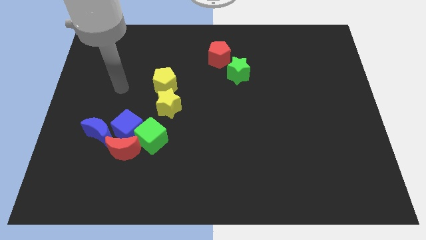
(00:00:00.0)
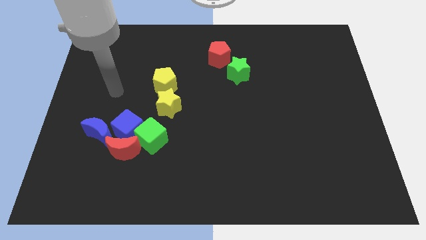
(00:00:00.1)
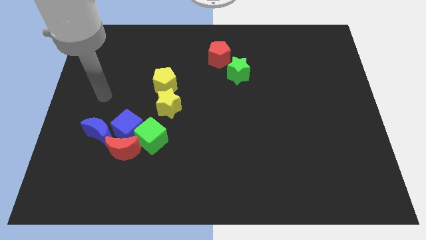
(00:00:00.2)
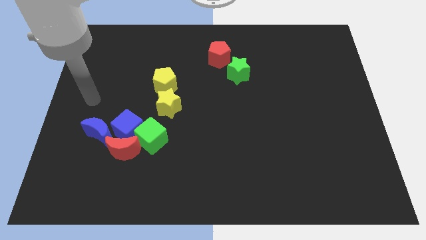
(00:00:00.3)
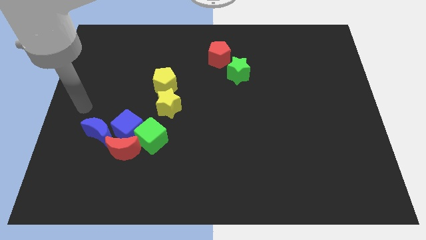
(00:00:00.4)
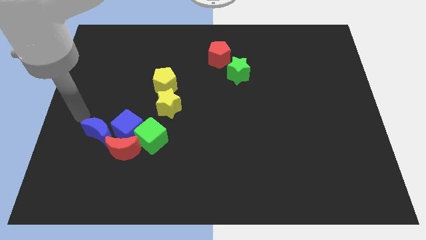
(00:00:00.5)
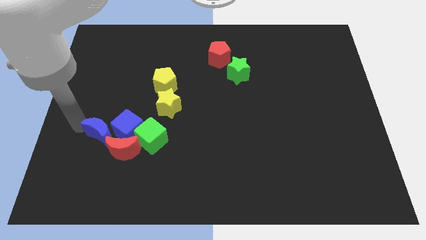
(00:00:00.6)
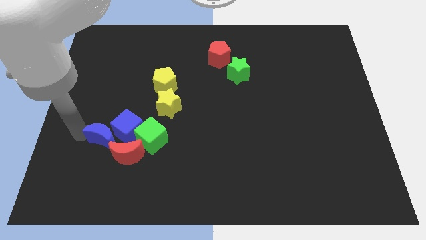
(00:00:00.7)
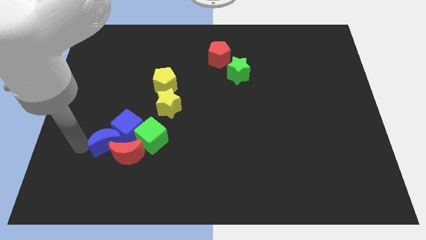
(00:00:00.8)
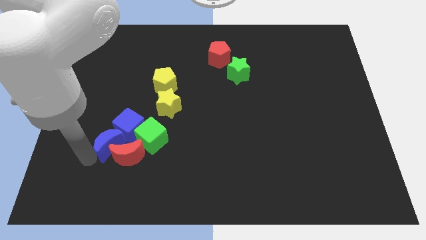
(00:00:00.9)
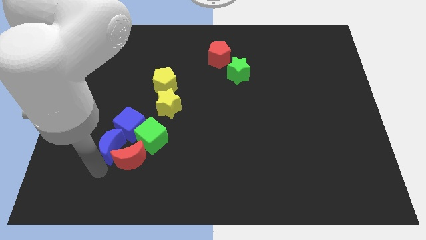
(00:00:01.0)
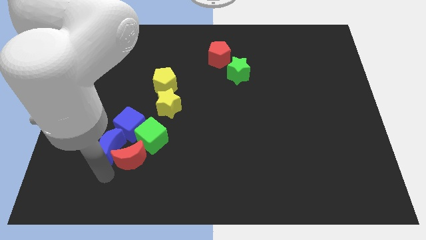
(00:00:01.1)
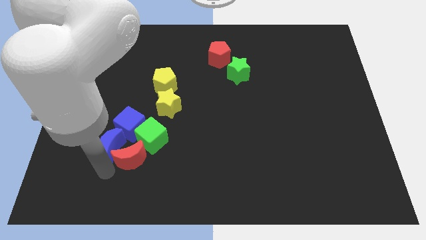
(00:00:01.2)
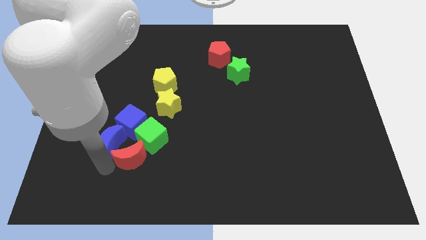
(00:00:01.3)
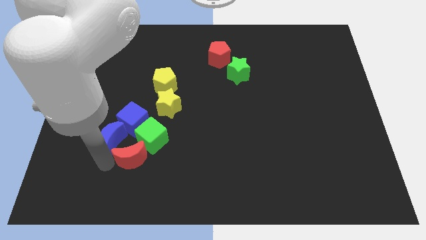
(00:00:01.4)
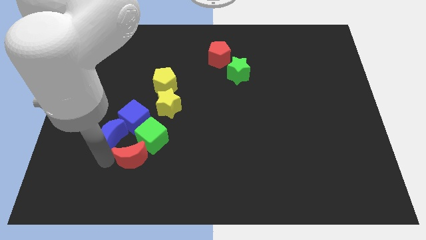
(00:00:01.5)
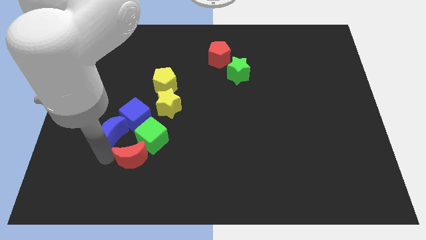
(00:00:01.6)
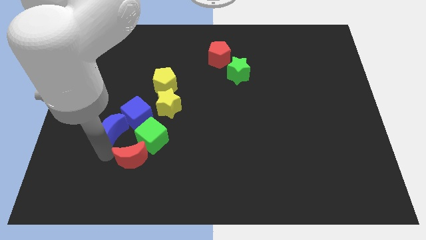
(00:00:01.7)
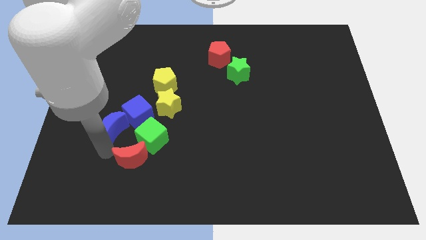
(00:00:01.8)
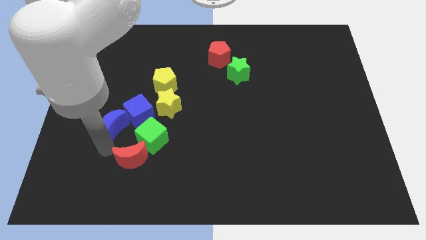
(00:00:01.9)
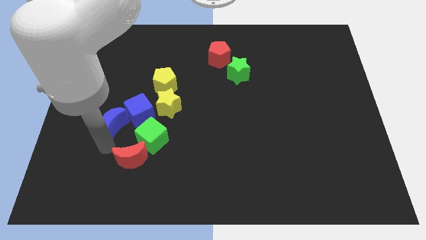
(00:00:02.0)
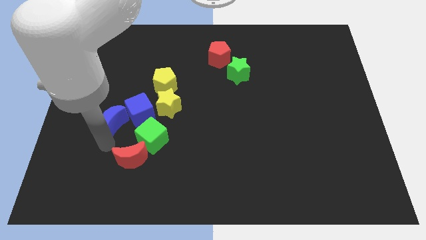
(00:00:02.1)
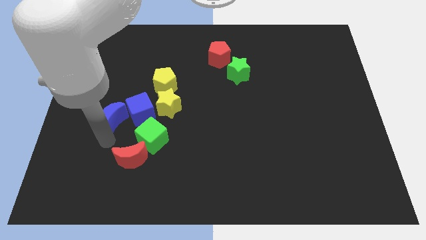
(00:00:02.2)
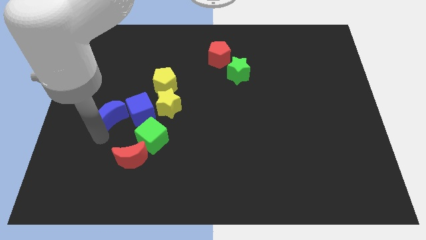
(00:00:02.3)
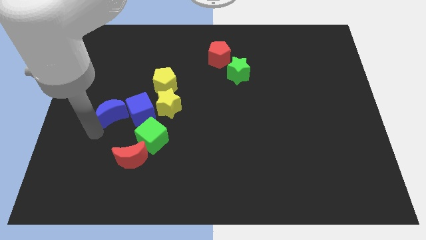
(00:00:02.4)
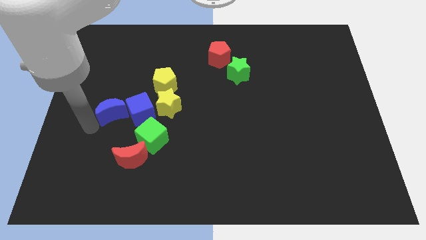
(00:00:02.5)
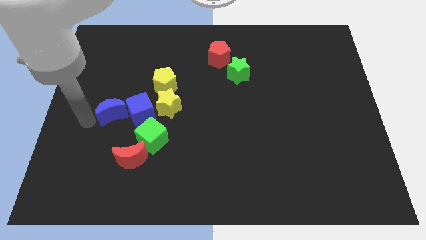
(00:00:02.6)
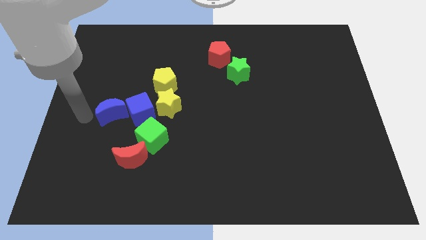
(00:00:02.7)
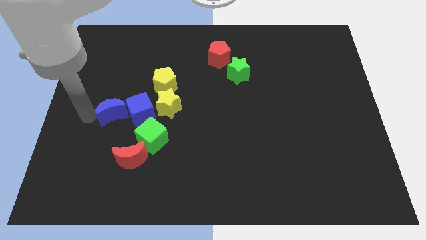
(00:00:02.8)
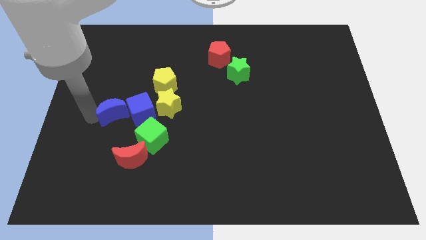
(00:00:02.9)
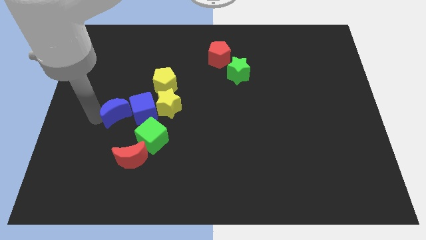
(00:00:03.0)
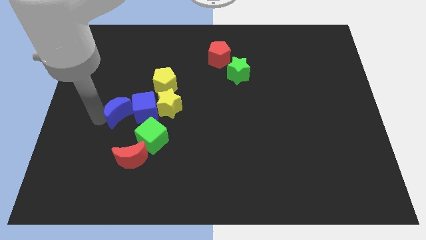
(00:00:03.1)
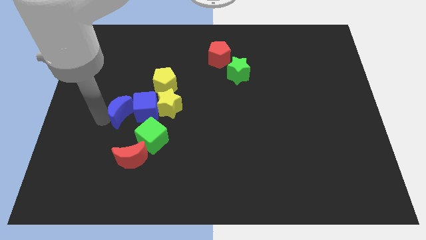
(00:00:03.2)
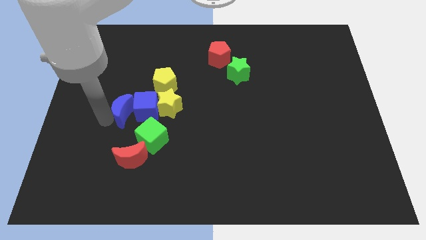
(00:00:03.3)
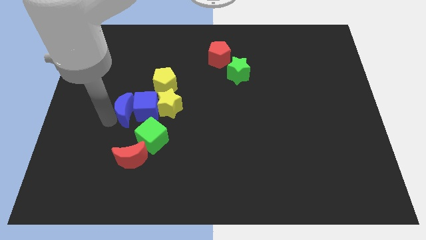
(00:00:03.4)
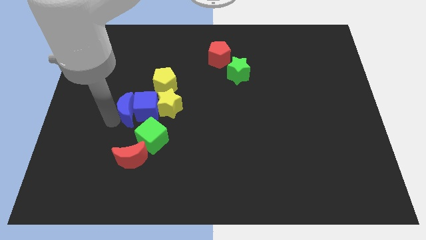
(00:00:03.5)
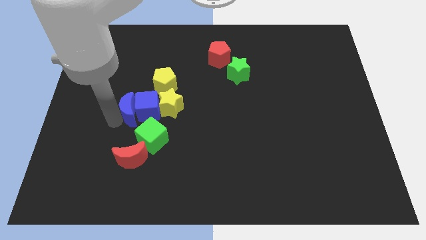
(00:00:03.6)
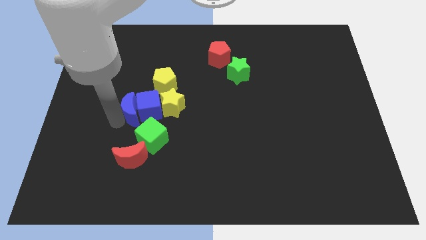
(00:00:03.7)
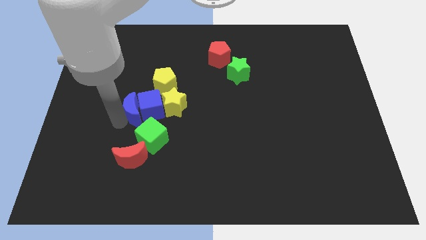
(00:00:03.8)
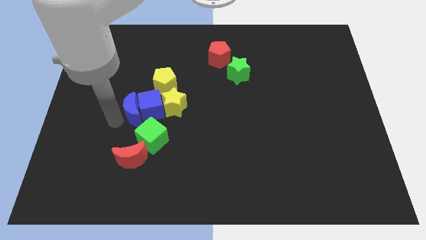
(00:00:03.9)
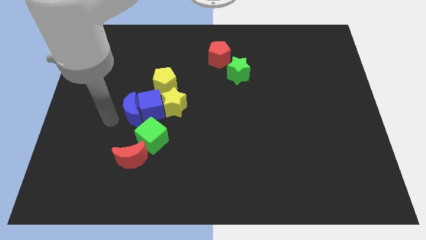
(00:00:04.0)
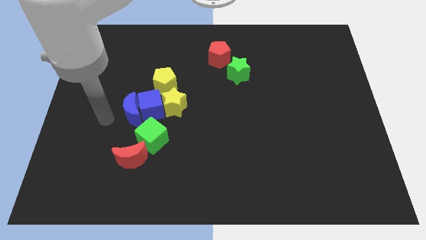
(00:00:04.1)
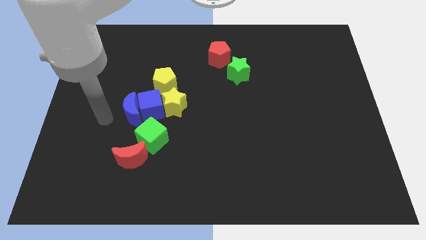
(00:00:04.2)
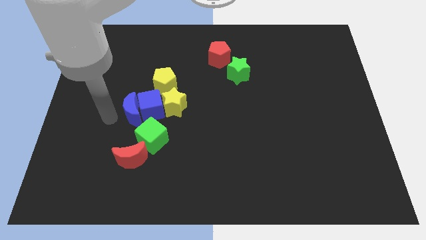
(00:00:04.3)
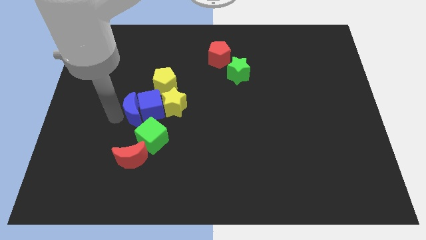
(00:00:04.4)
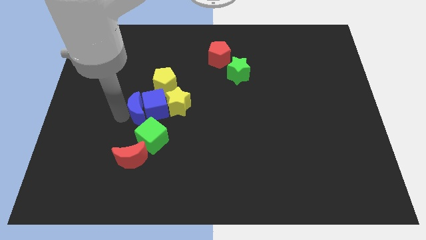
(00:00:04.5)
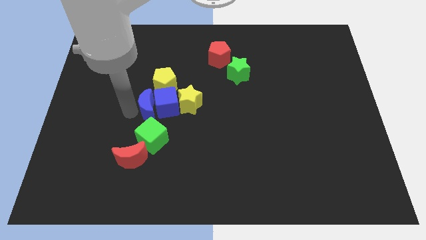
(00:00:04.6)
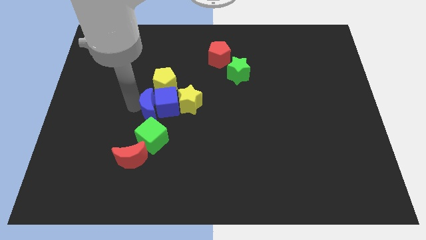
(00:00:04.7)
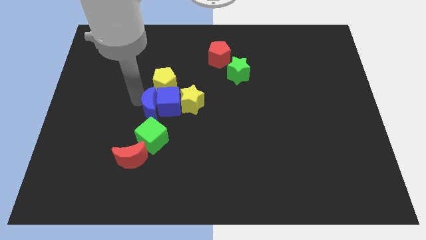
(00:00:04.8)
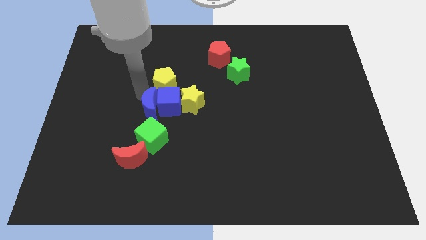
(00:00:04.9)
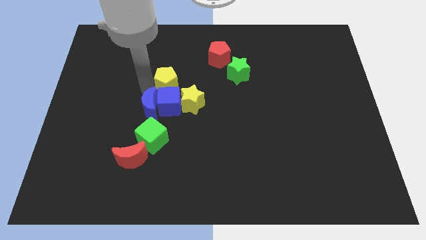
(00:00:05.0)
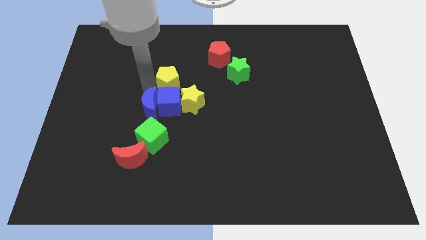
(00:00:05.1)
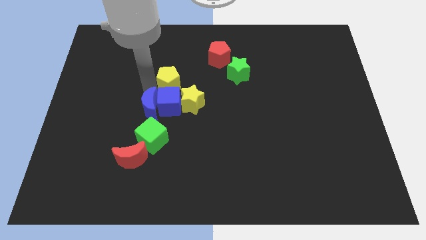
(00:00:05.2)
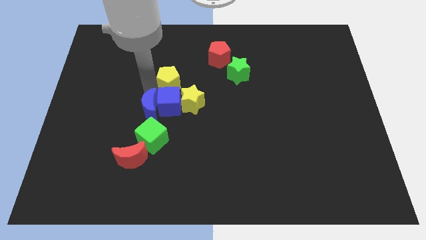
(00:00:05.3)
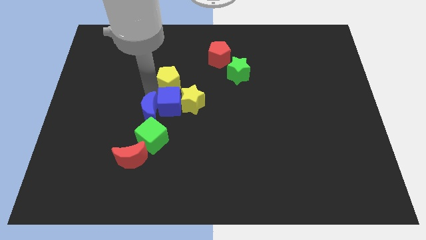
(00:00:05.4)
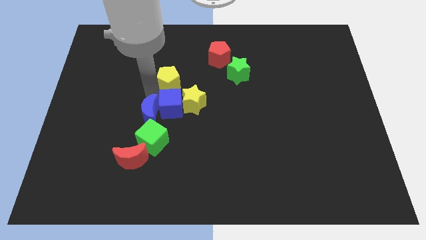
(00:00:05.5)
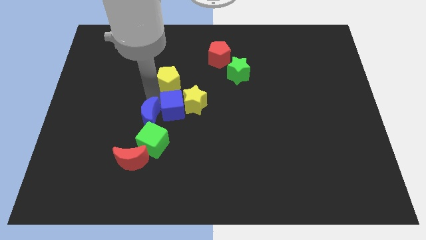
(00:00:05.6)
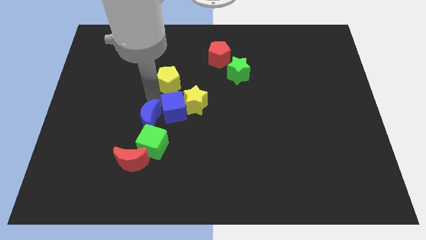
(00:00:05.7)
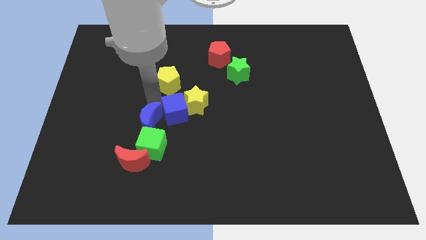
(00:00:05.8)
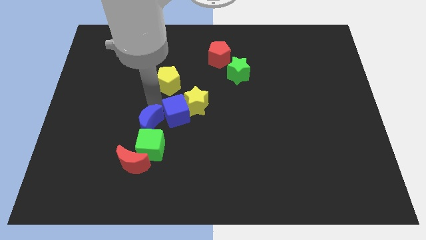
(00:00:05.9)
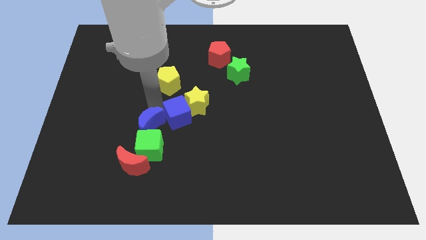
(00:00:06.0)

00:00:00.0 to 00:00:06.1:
push the blue moon to the green cube

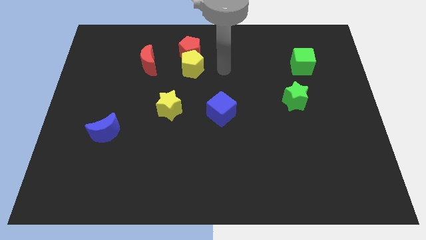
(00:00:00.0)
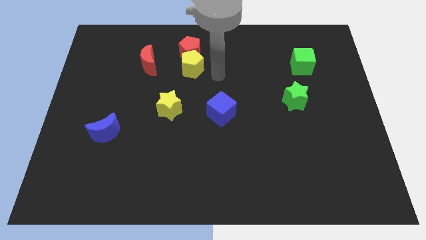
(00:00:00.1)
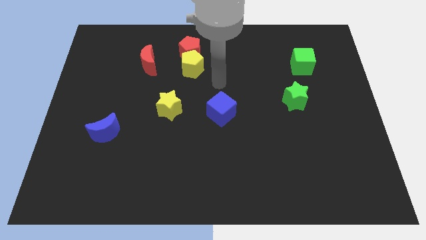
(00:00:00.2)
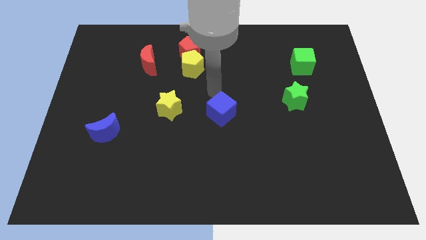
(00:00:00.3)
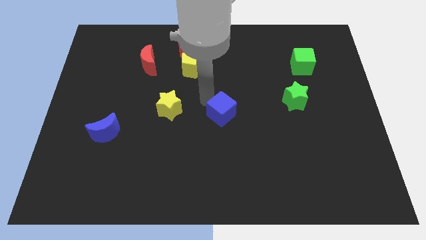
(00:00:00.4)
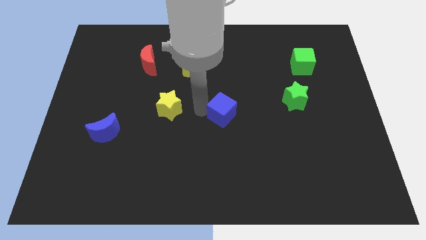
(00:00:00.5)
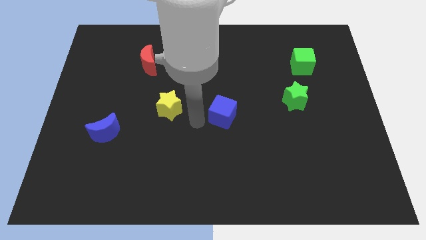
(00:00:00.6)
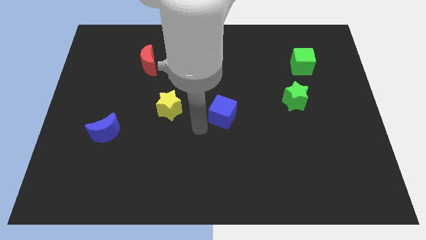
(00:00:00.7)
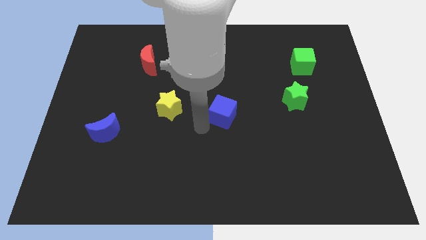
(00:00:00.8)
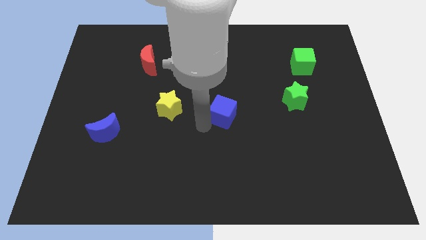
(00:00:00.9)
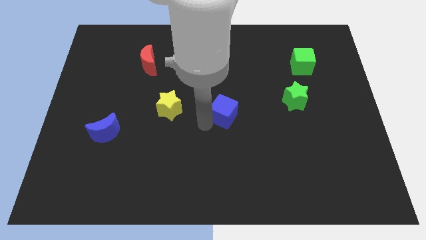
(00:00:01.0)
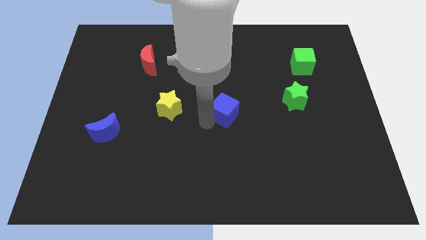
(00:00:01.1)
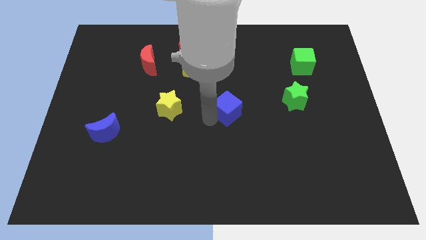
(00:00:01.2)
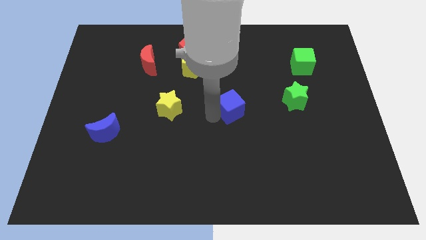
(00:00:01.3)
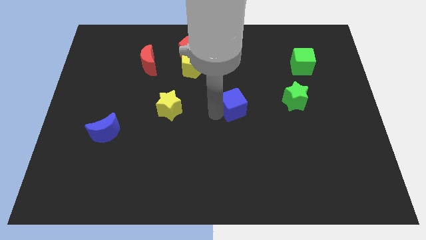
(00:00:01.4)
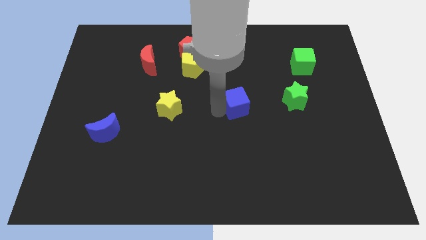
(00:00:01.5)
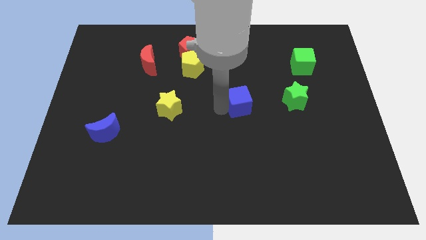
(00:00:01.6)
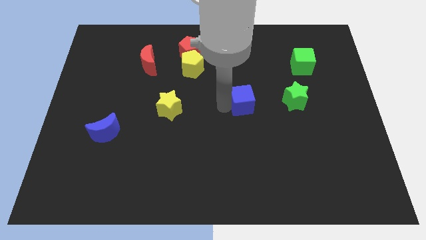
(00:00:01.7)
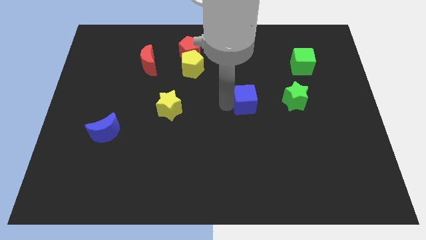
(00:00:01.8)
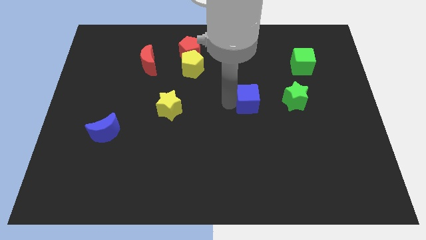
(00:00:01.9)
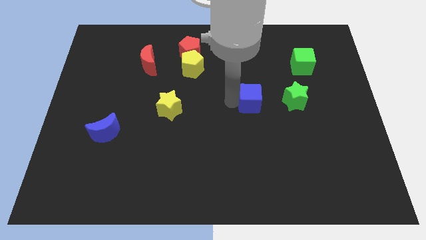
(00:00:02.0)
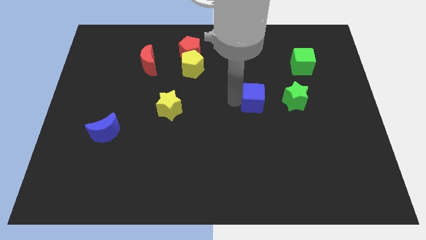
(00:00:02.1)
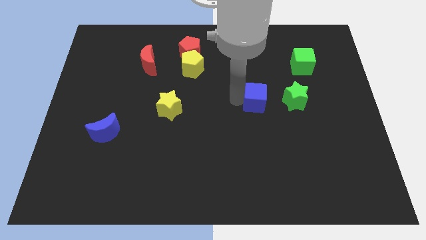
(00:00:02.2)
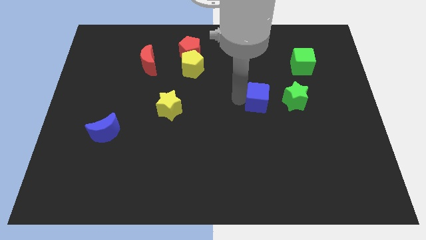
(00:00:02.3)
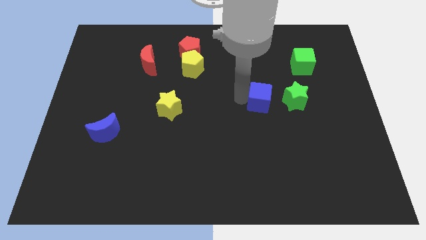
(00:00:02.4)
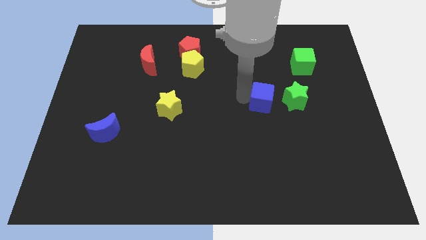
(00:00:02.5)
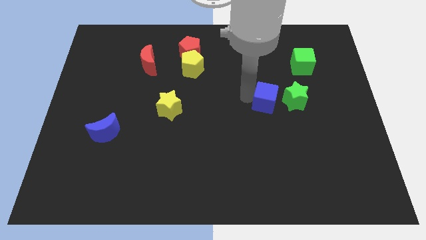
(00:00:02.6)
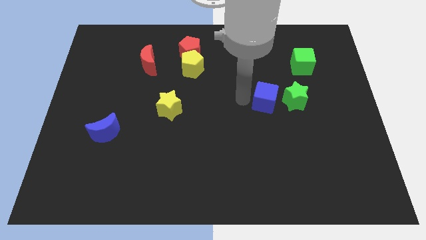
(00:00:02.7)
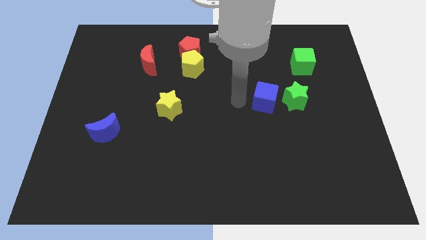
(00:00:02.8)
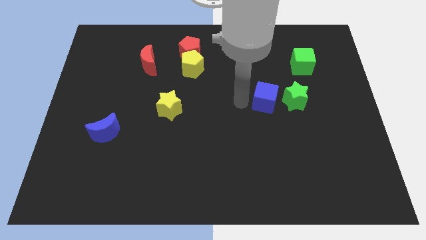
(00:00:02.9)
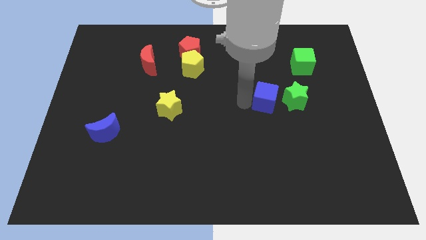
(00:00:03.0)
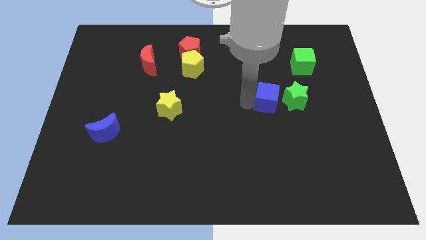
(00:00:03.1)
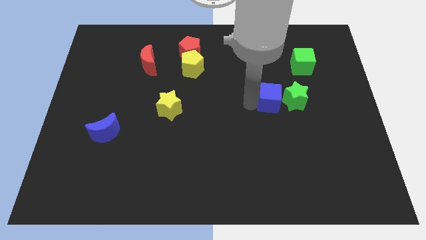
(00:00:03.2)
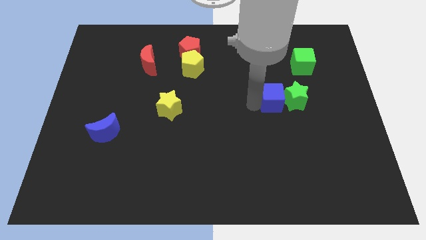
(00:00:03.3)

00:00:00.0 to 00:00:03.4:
push the blue cube towards the green star
